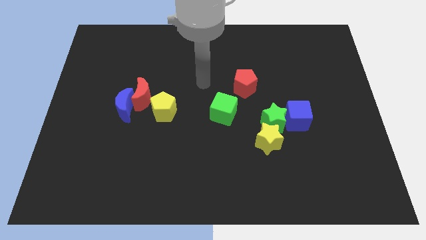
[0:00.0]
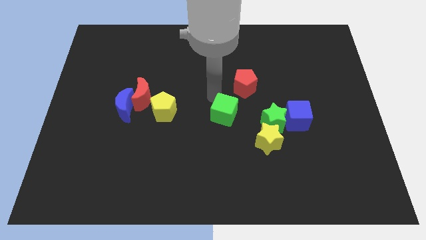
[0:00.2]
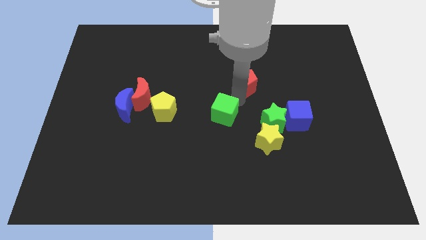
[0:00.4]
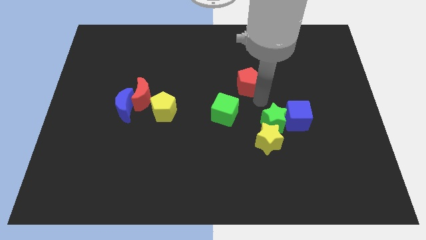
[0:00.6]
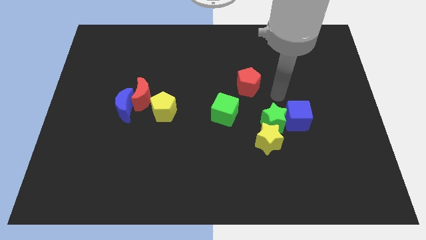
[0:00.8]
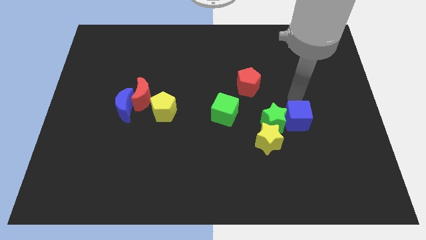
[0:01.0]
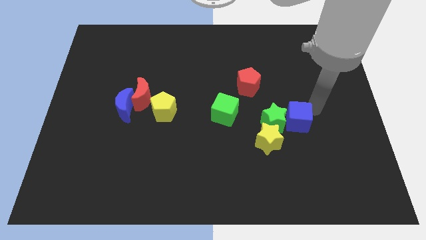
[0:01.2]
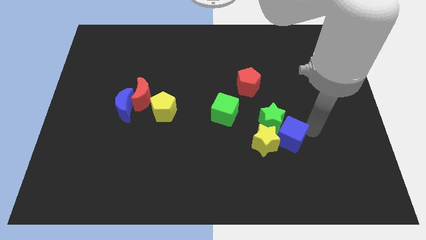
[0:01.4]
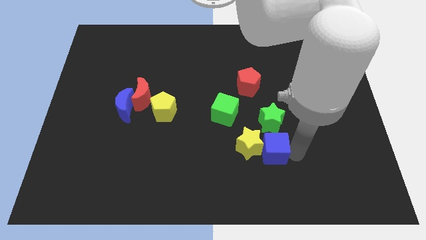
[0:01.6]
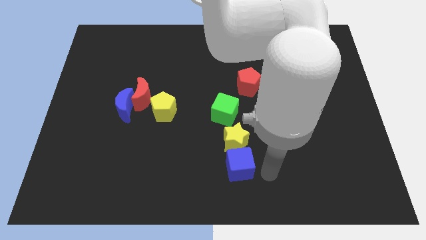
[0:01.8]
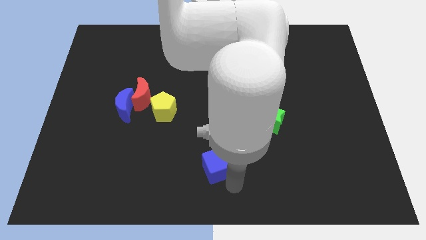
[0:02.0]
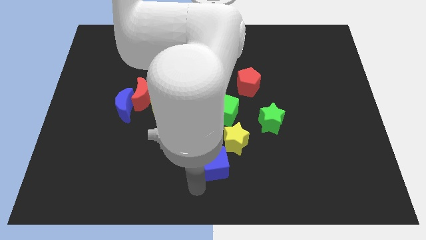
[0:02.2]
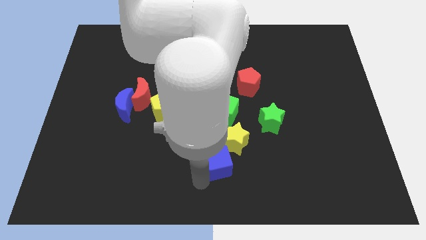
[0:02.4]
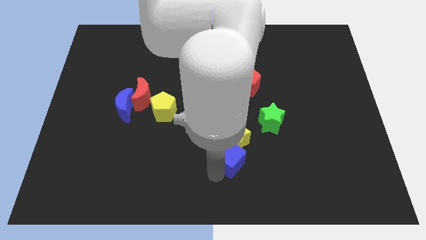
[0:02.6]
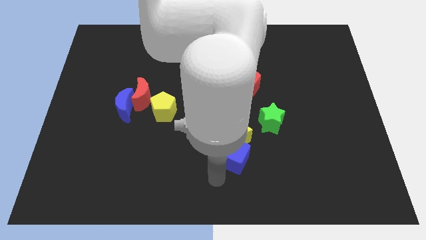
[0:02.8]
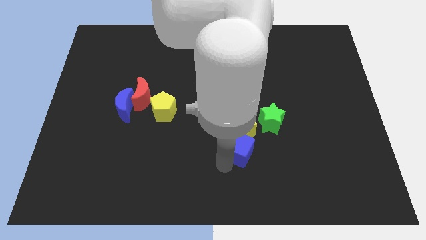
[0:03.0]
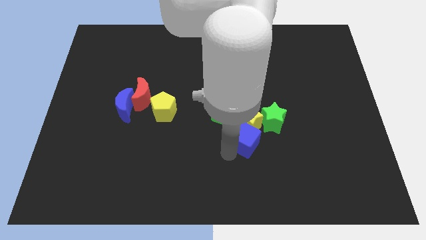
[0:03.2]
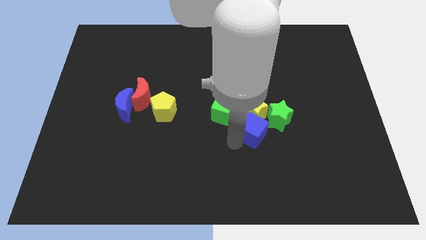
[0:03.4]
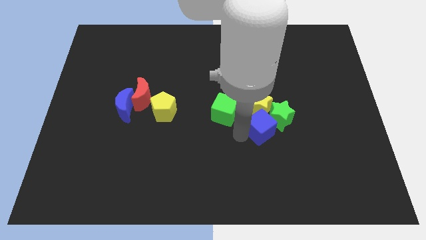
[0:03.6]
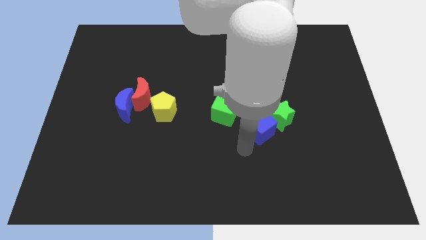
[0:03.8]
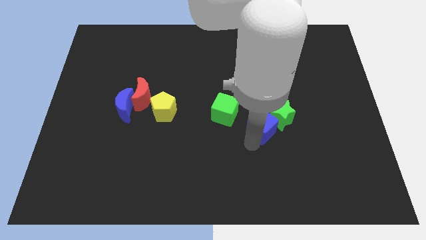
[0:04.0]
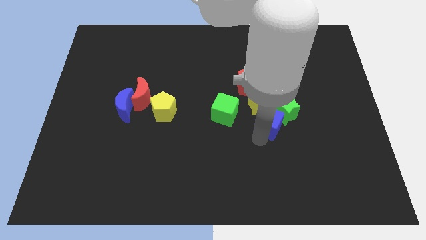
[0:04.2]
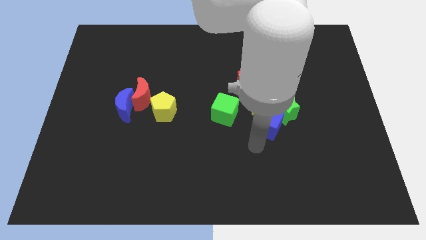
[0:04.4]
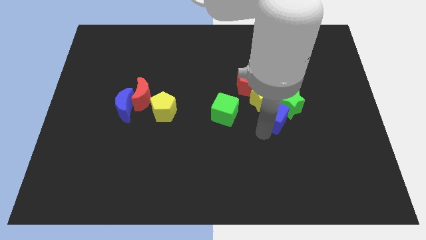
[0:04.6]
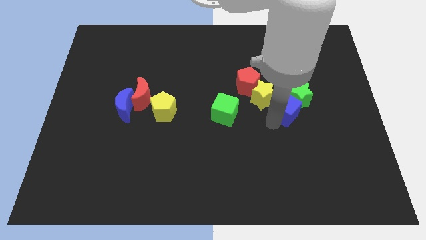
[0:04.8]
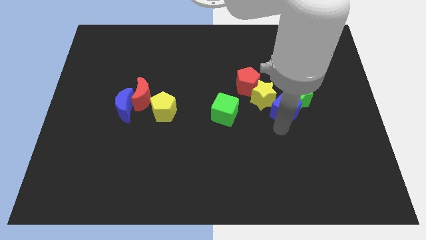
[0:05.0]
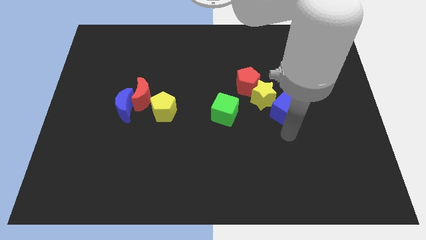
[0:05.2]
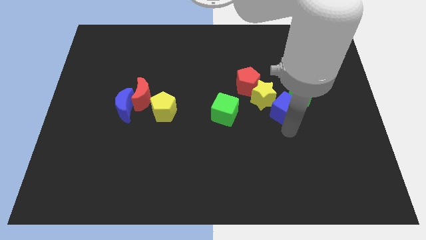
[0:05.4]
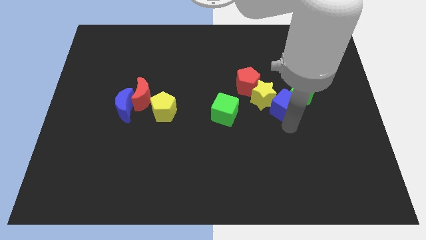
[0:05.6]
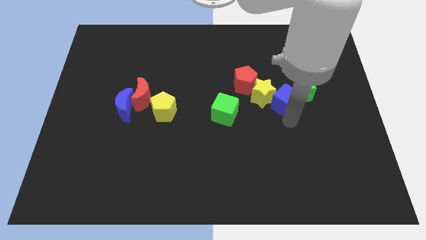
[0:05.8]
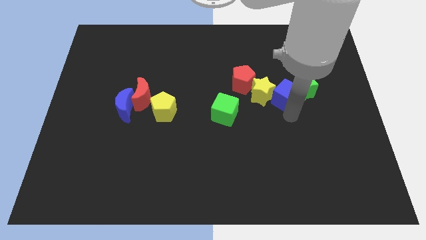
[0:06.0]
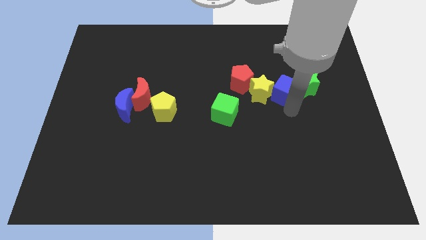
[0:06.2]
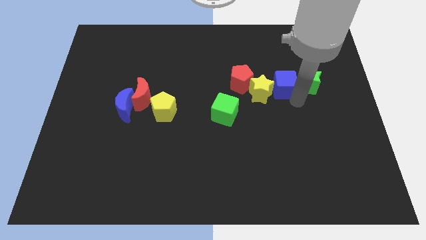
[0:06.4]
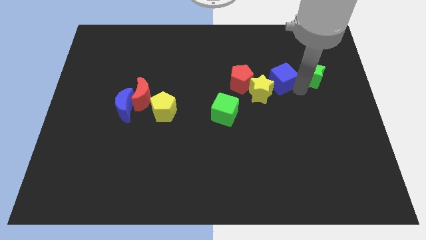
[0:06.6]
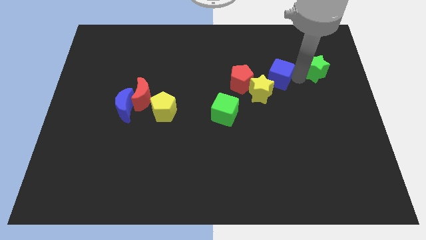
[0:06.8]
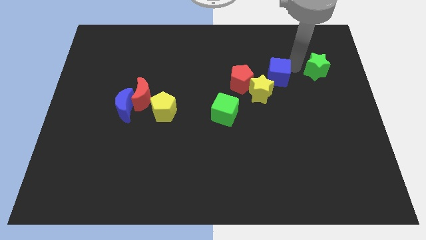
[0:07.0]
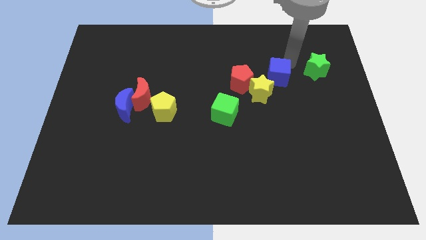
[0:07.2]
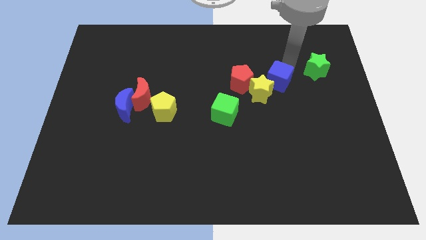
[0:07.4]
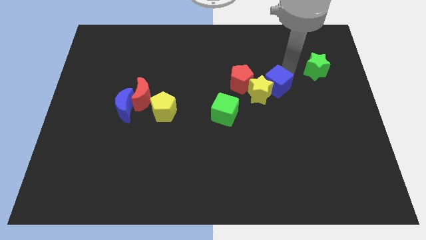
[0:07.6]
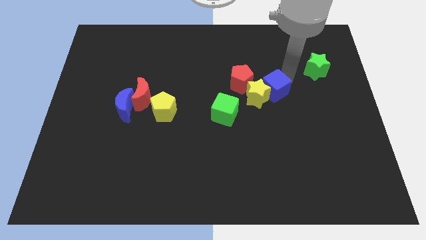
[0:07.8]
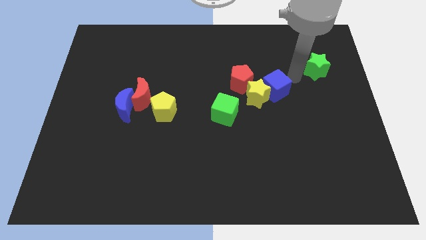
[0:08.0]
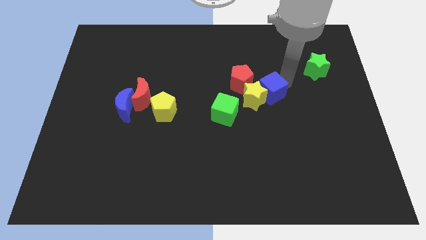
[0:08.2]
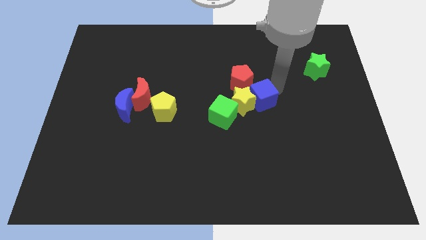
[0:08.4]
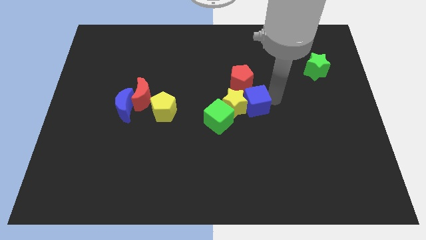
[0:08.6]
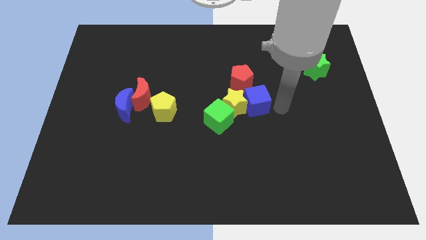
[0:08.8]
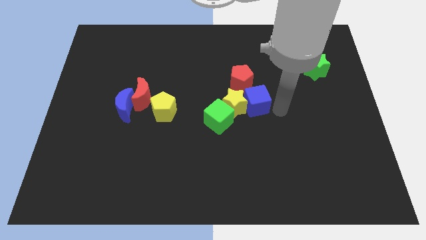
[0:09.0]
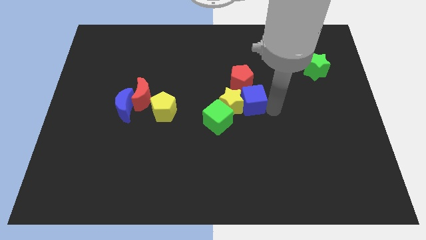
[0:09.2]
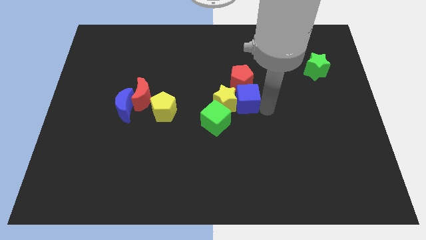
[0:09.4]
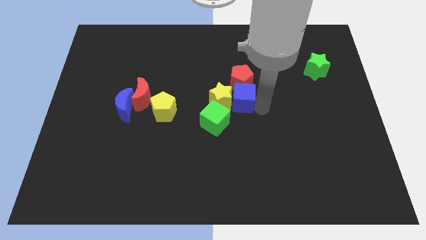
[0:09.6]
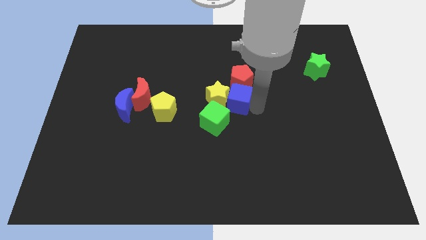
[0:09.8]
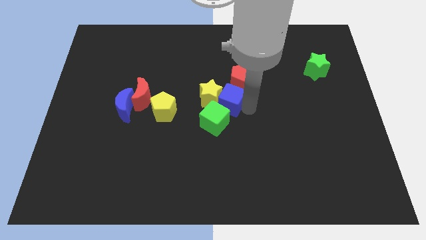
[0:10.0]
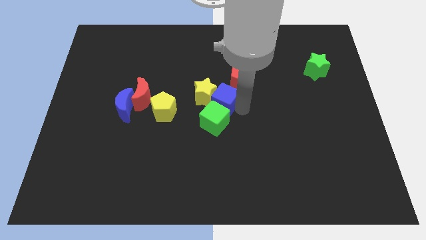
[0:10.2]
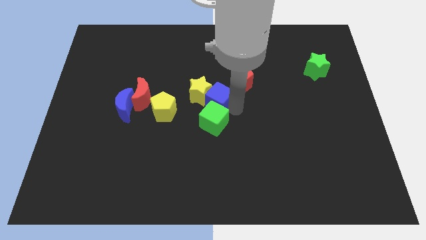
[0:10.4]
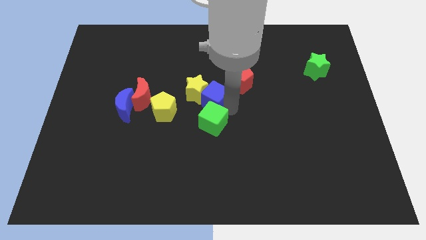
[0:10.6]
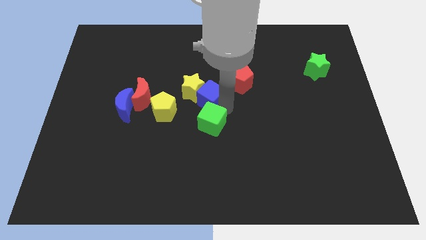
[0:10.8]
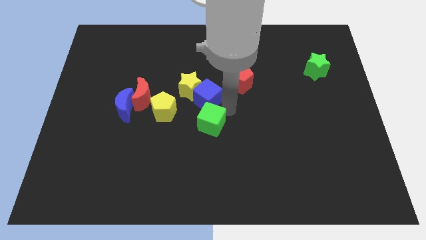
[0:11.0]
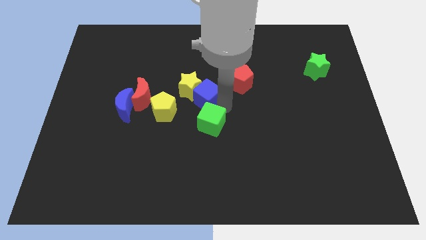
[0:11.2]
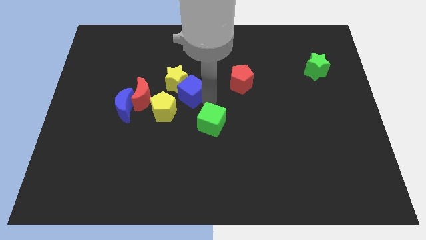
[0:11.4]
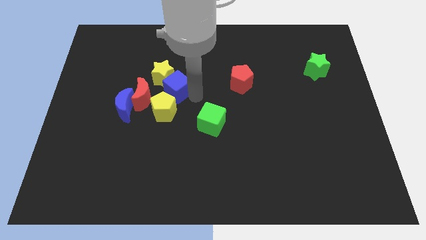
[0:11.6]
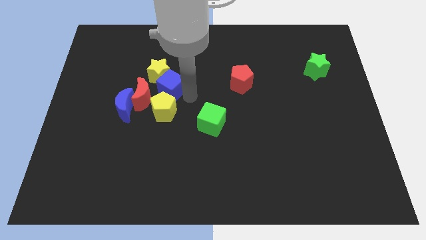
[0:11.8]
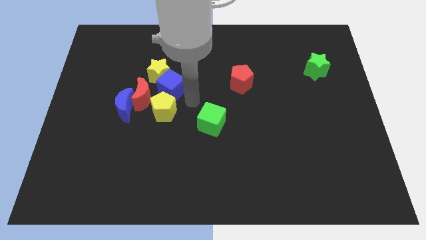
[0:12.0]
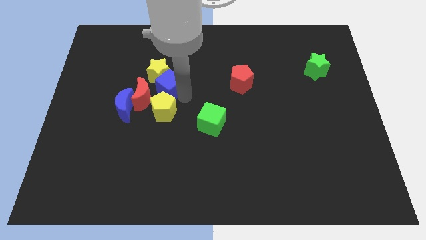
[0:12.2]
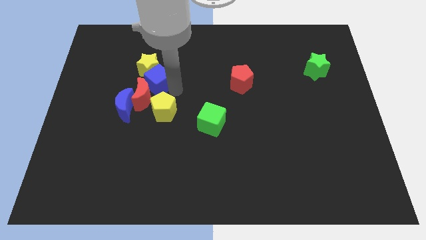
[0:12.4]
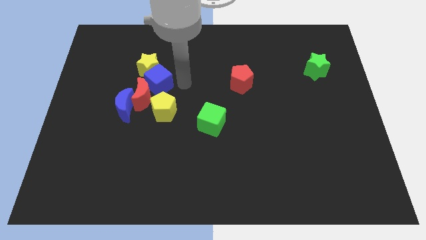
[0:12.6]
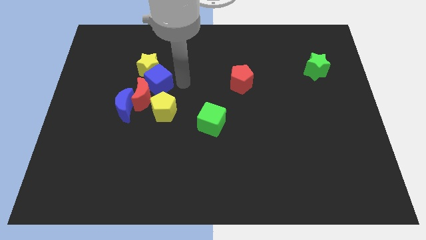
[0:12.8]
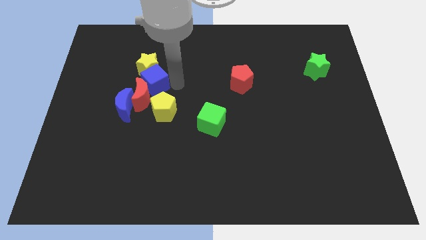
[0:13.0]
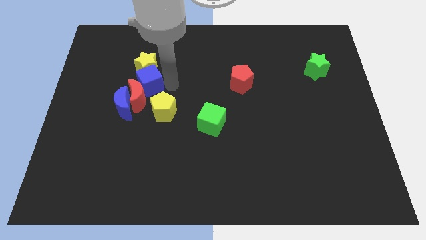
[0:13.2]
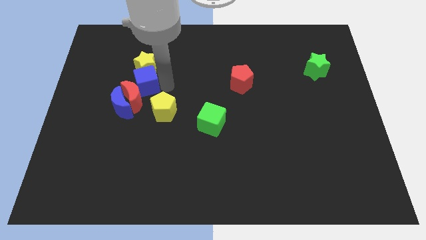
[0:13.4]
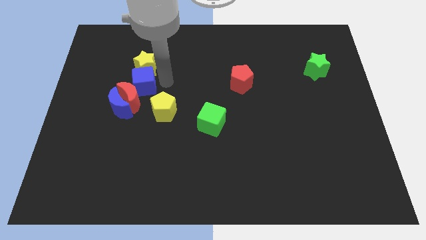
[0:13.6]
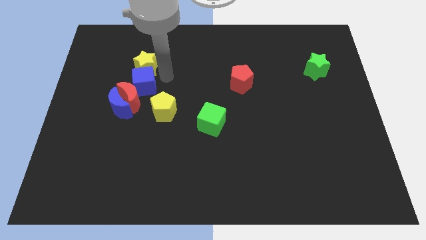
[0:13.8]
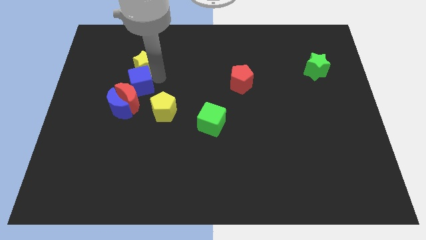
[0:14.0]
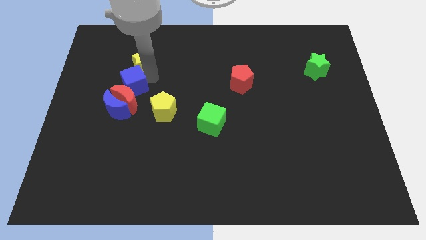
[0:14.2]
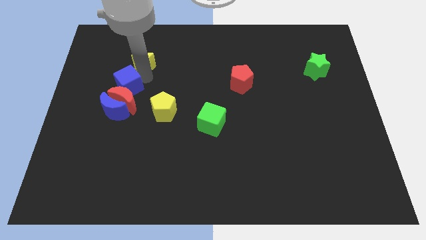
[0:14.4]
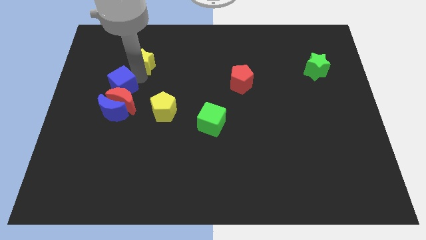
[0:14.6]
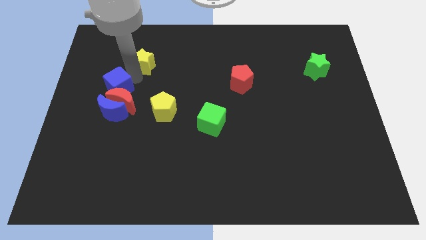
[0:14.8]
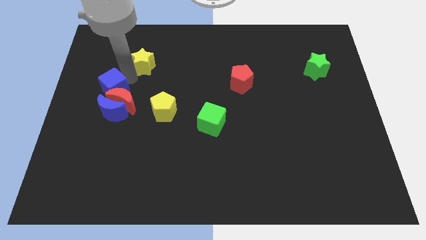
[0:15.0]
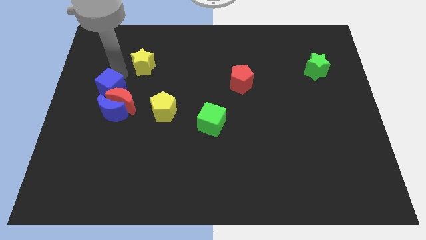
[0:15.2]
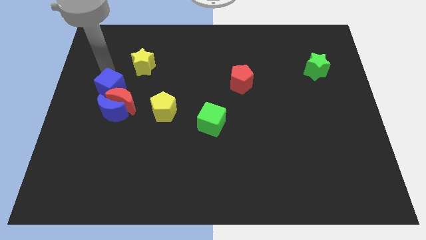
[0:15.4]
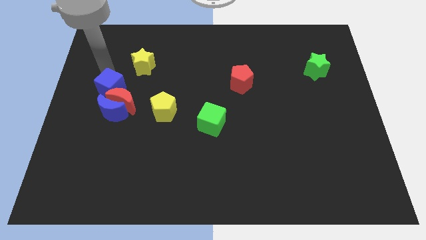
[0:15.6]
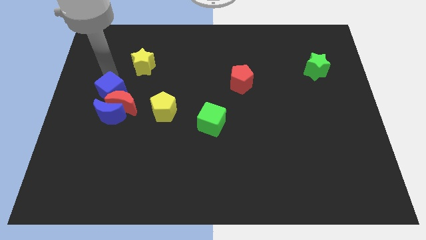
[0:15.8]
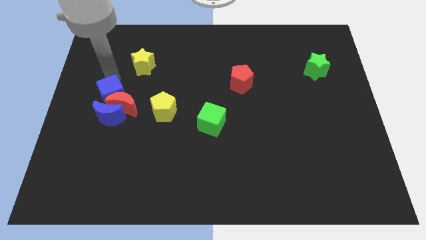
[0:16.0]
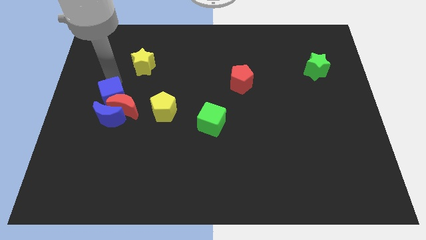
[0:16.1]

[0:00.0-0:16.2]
slide the blue cube to the left of the yellow pentagon

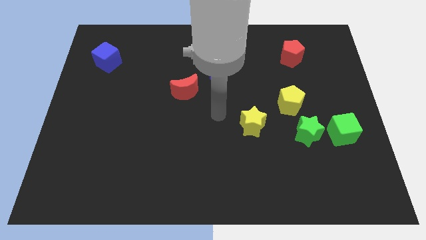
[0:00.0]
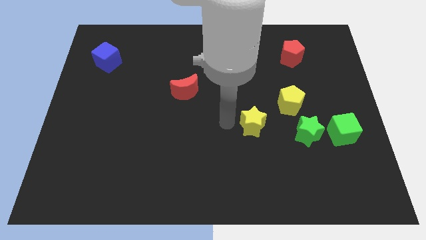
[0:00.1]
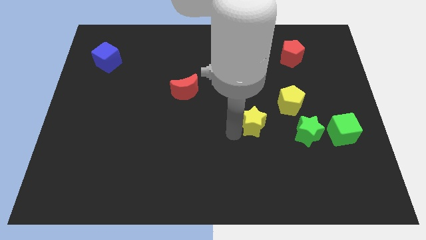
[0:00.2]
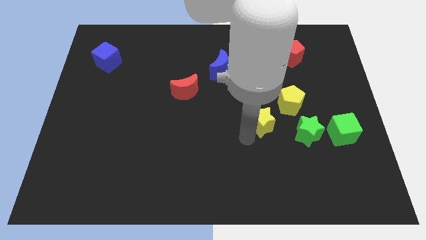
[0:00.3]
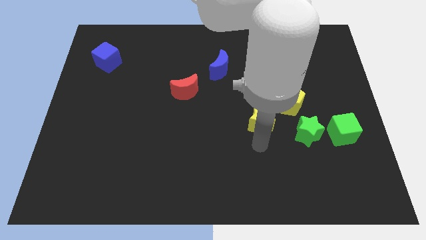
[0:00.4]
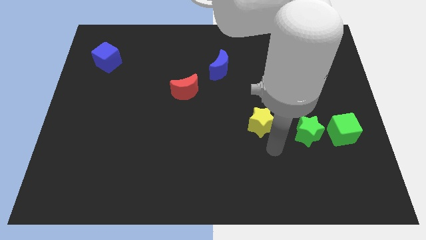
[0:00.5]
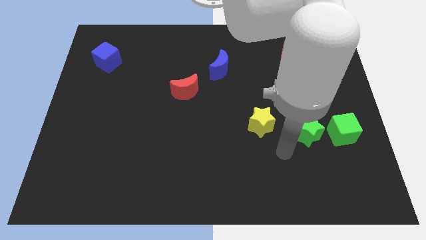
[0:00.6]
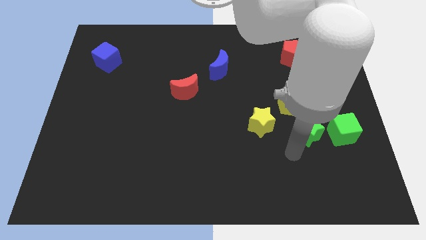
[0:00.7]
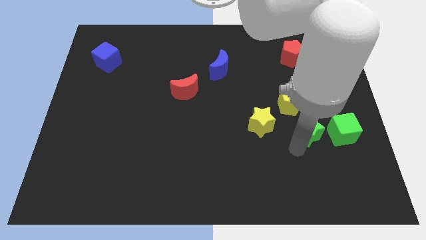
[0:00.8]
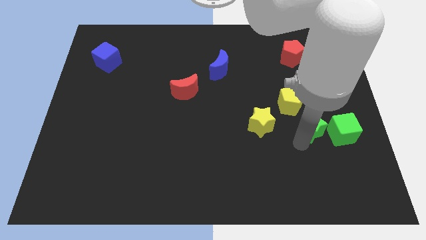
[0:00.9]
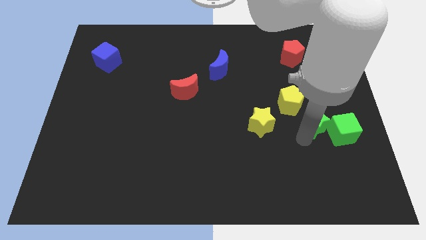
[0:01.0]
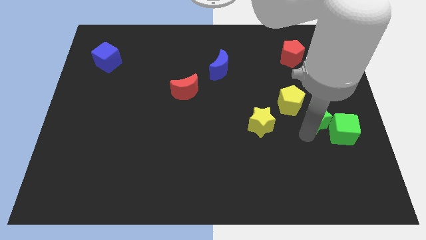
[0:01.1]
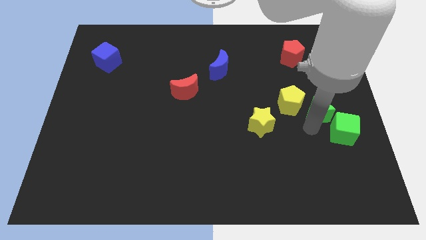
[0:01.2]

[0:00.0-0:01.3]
push the green star above the green cube
